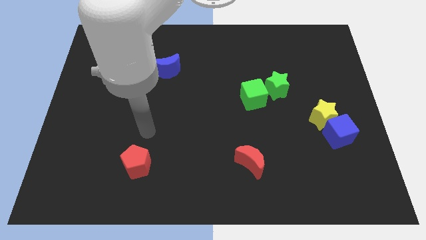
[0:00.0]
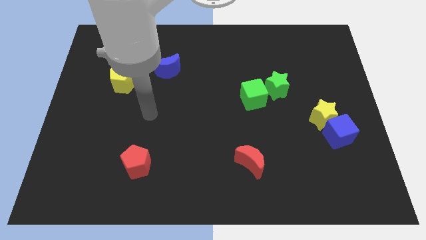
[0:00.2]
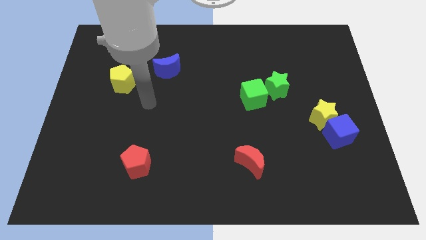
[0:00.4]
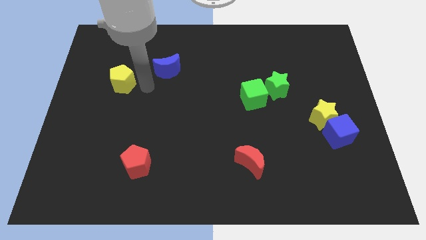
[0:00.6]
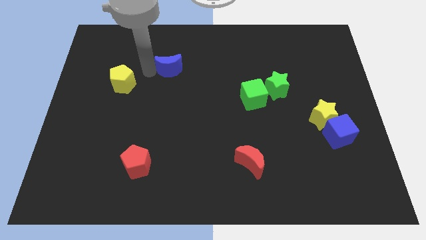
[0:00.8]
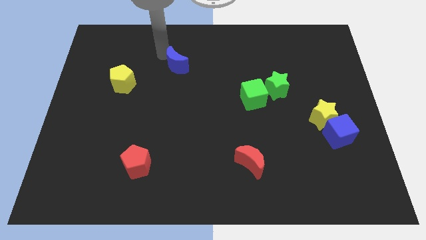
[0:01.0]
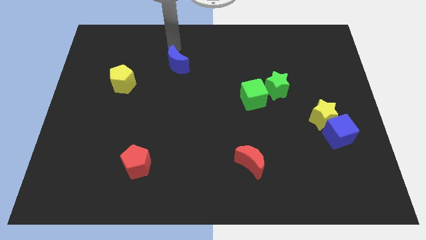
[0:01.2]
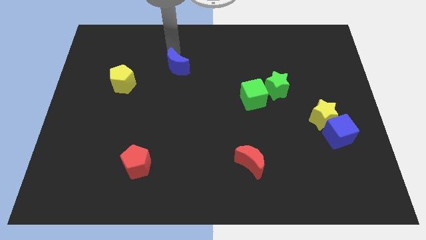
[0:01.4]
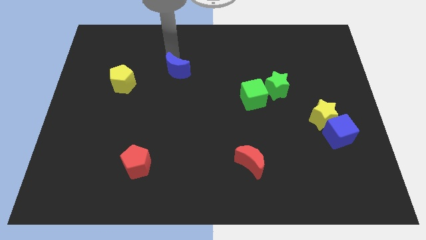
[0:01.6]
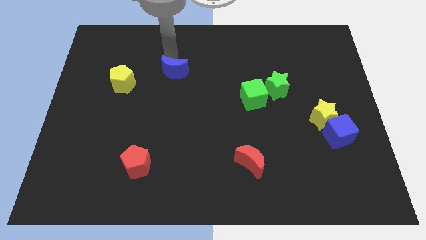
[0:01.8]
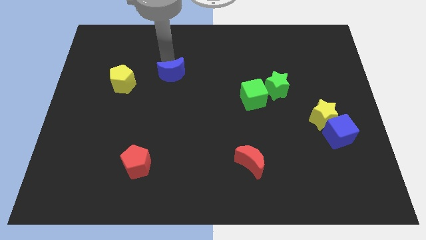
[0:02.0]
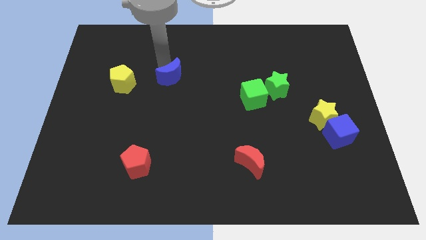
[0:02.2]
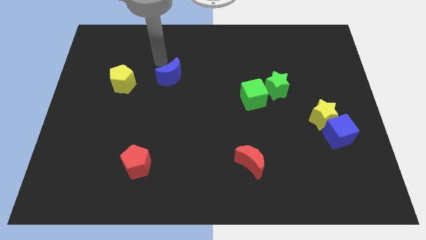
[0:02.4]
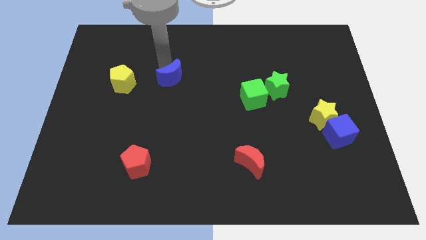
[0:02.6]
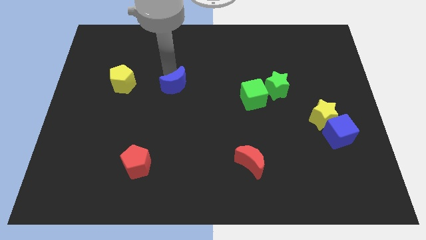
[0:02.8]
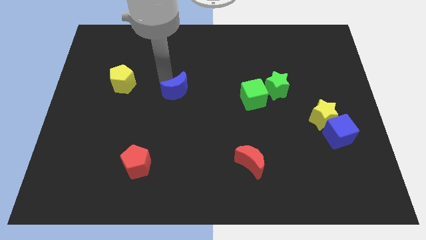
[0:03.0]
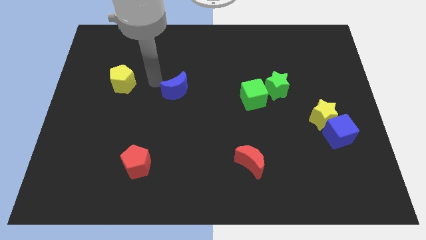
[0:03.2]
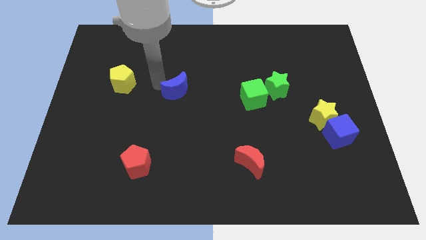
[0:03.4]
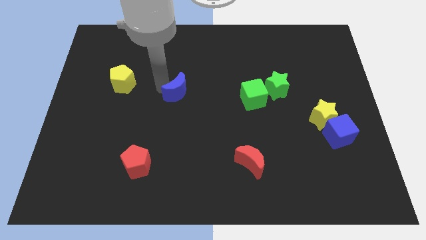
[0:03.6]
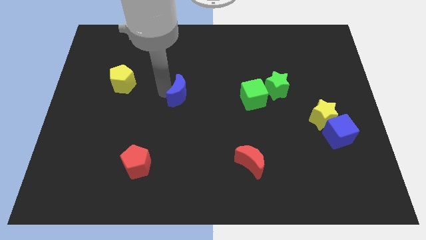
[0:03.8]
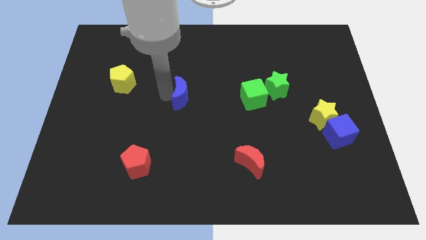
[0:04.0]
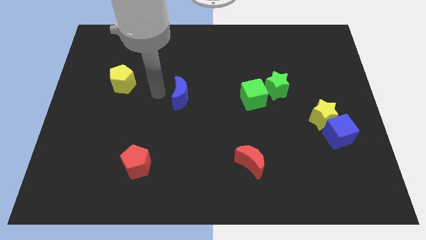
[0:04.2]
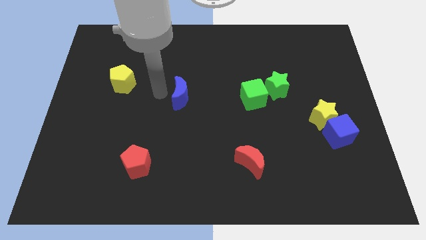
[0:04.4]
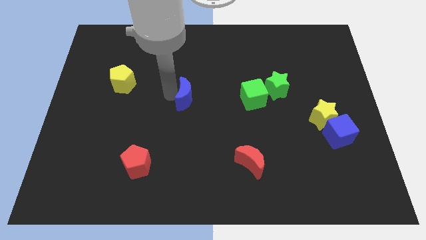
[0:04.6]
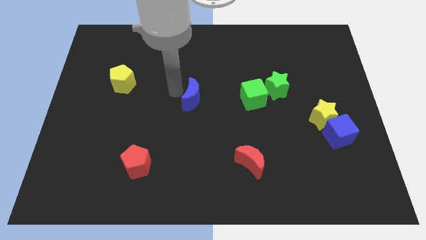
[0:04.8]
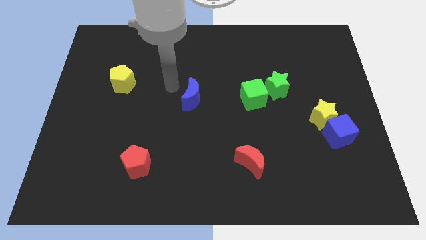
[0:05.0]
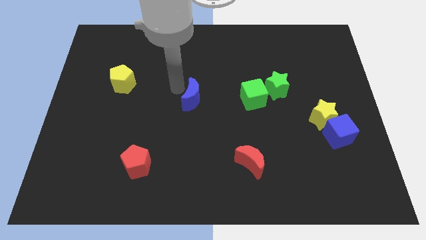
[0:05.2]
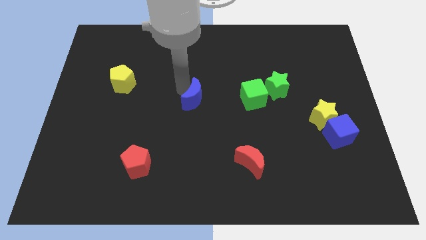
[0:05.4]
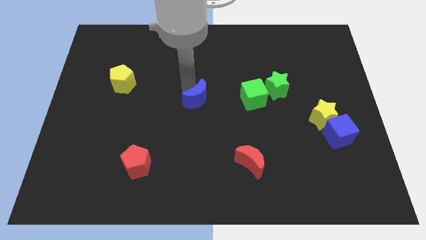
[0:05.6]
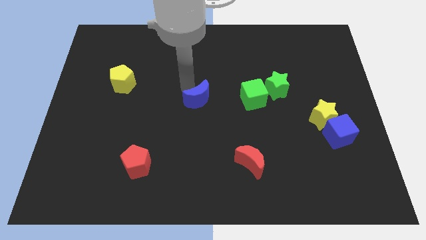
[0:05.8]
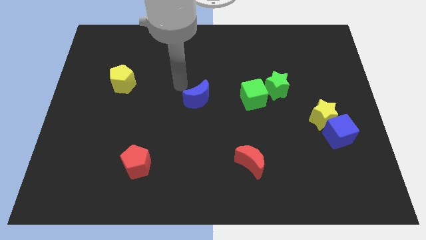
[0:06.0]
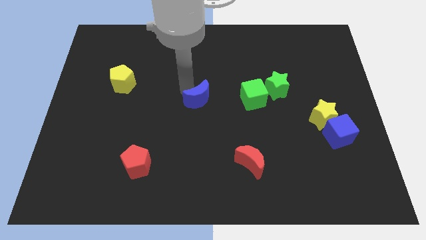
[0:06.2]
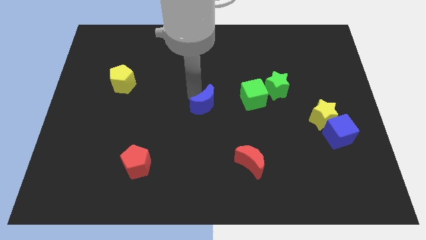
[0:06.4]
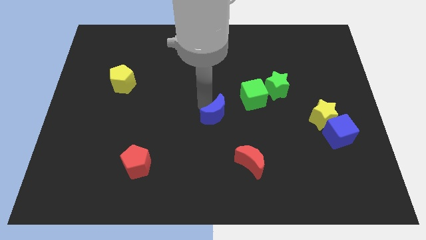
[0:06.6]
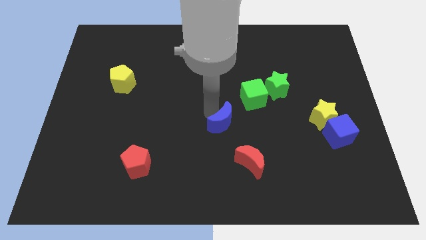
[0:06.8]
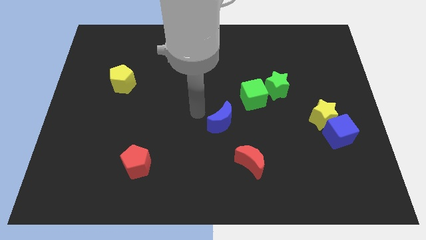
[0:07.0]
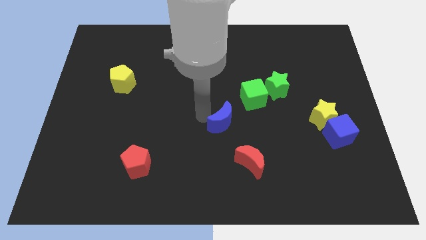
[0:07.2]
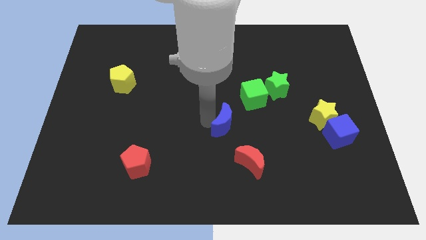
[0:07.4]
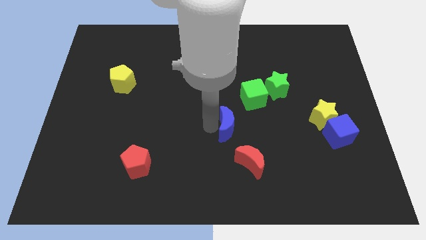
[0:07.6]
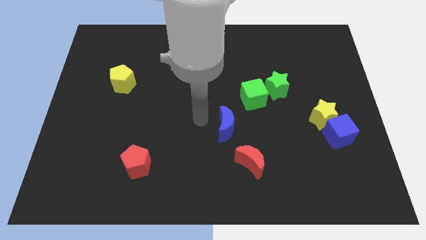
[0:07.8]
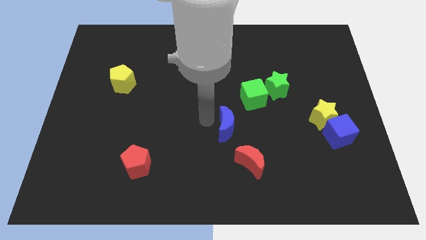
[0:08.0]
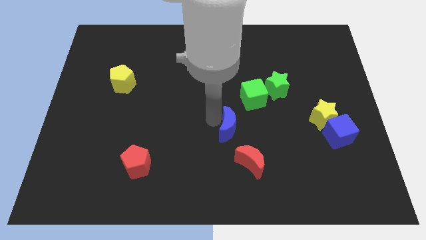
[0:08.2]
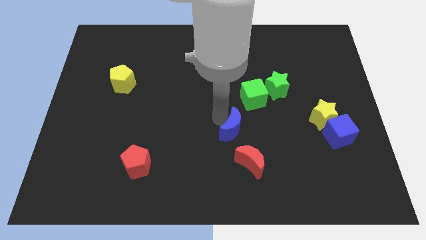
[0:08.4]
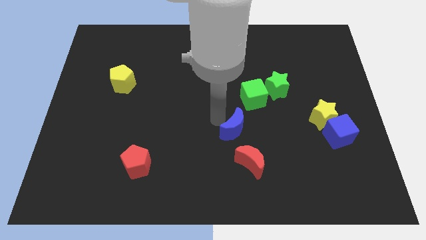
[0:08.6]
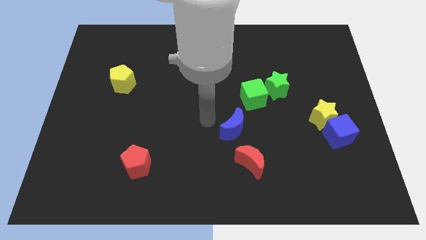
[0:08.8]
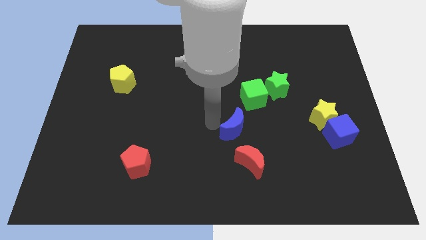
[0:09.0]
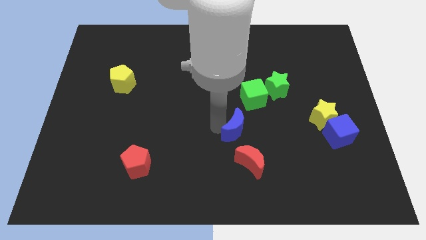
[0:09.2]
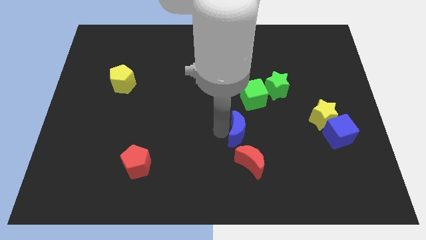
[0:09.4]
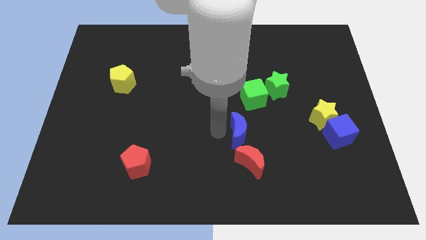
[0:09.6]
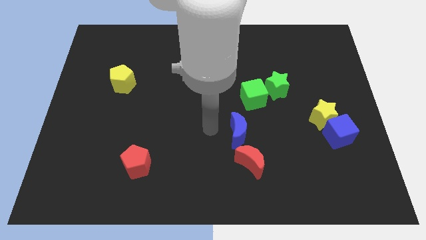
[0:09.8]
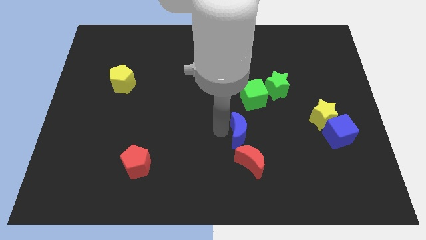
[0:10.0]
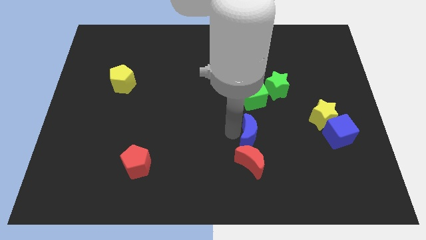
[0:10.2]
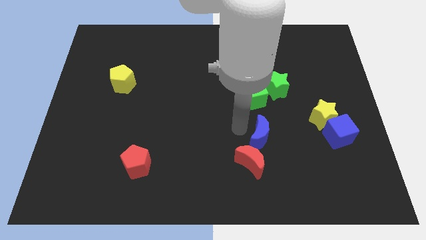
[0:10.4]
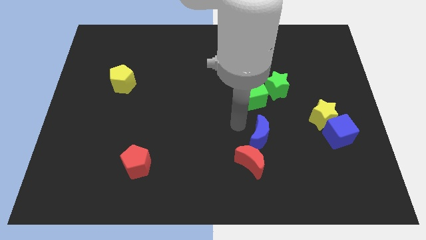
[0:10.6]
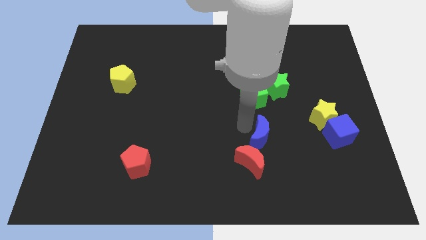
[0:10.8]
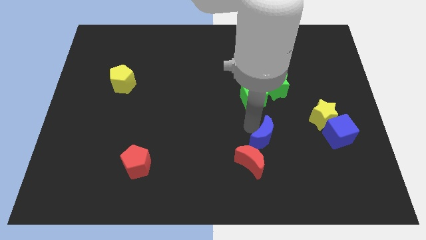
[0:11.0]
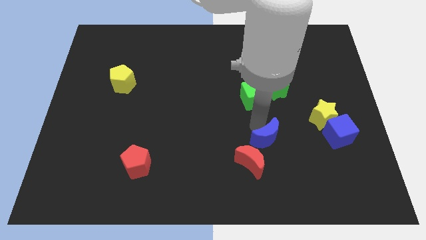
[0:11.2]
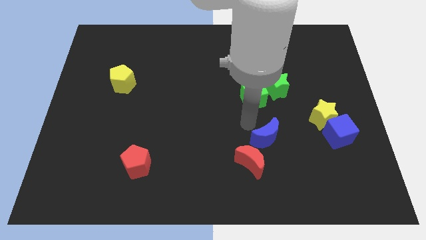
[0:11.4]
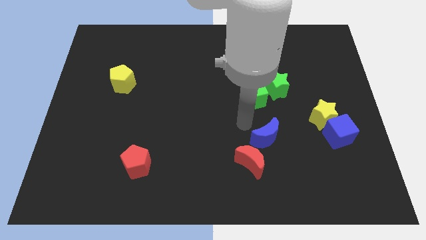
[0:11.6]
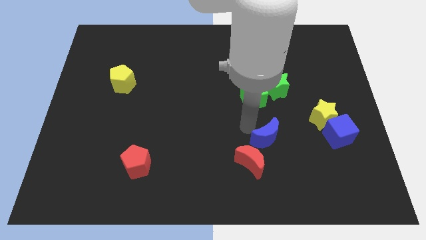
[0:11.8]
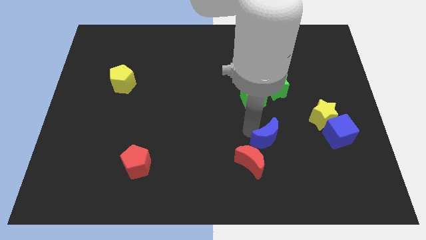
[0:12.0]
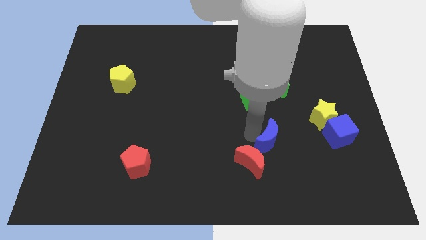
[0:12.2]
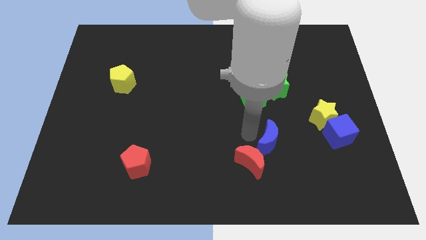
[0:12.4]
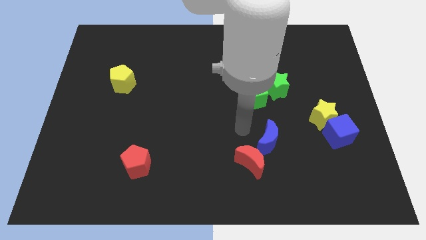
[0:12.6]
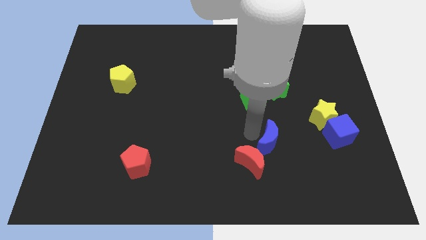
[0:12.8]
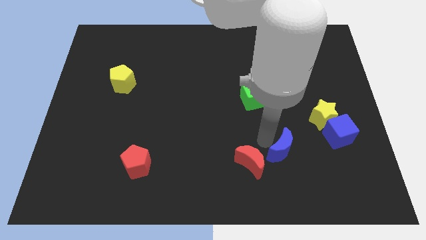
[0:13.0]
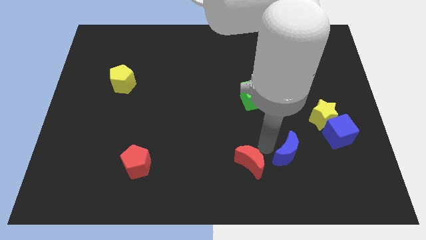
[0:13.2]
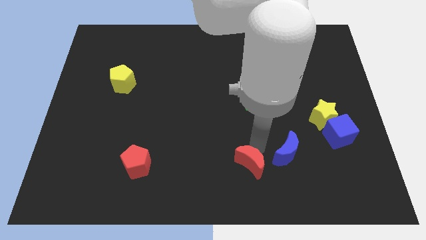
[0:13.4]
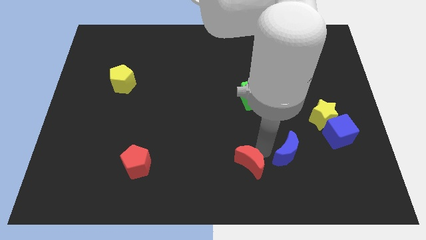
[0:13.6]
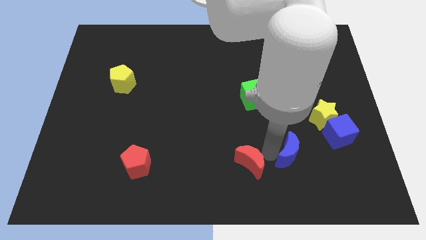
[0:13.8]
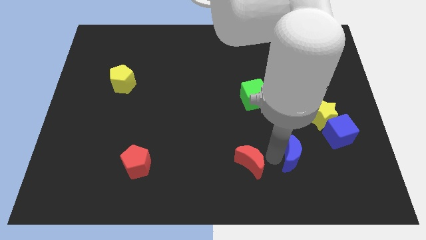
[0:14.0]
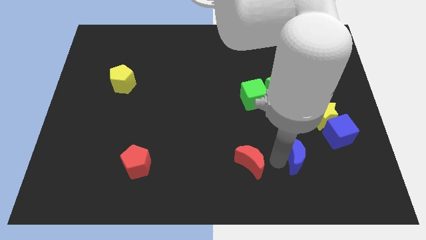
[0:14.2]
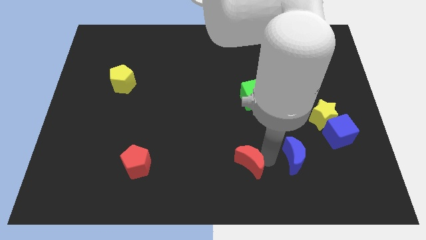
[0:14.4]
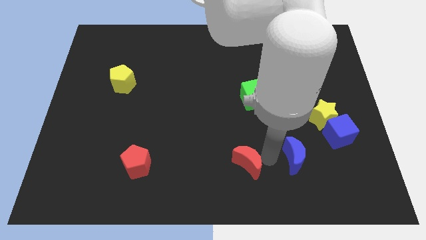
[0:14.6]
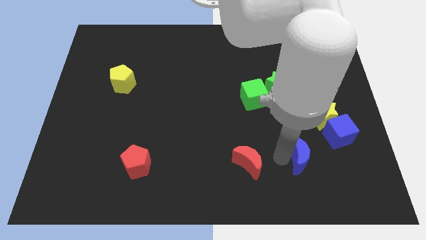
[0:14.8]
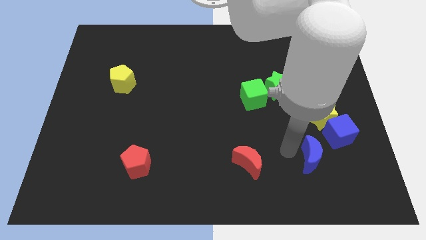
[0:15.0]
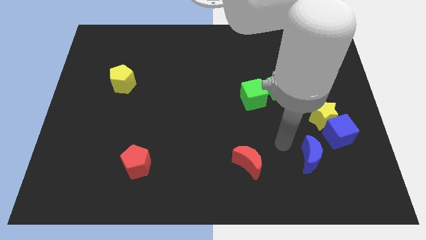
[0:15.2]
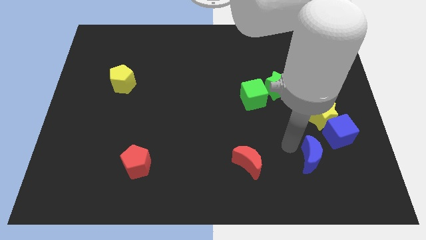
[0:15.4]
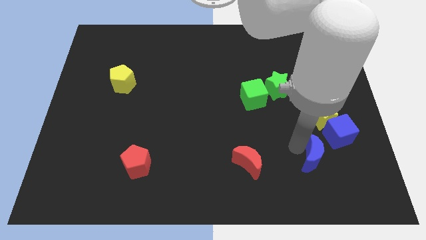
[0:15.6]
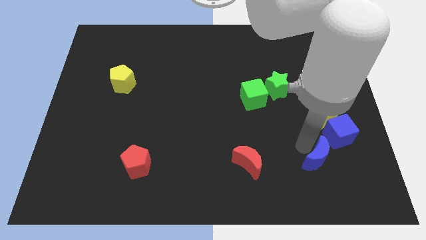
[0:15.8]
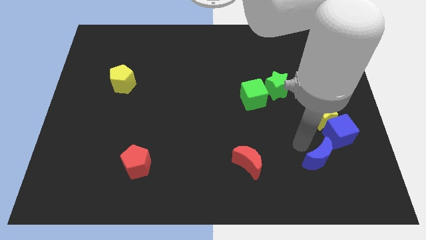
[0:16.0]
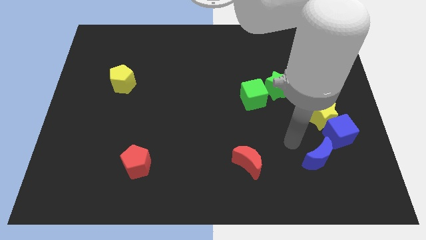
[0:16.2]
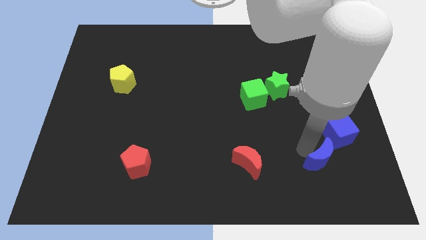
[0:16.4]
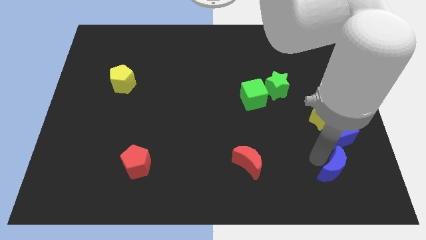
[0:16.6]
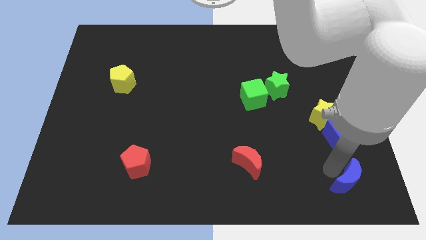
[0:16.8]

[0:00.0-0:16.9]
push the blue moon to the bottom right of the board
